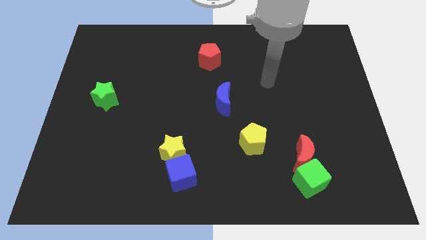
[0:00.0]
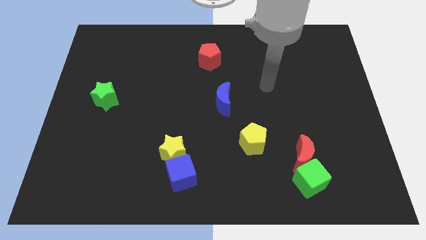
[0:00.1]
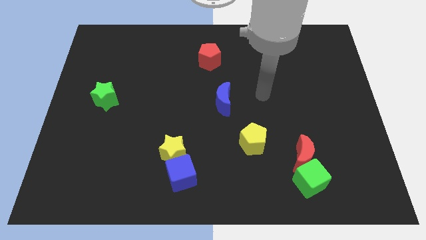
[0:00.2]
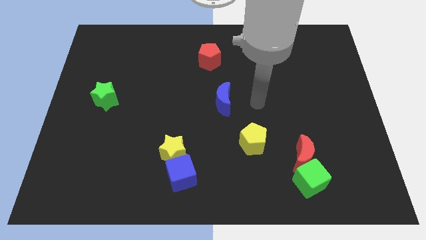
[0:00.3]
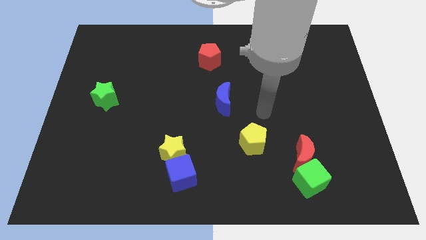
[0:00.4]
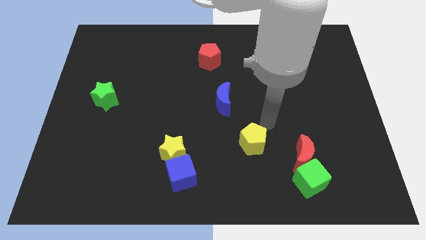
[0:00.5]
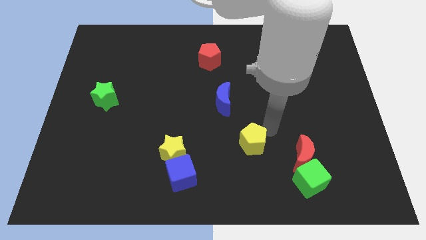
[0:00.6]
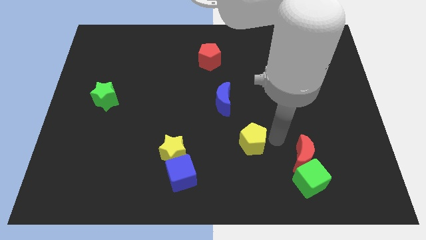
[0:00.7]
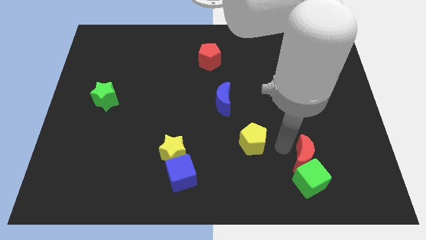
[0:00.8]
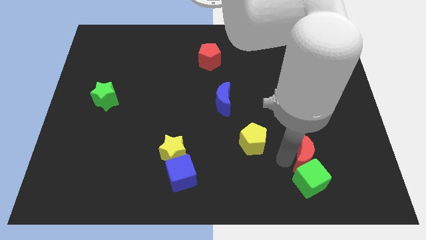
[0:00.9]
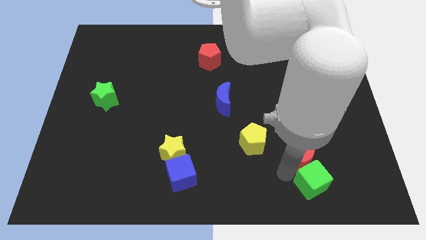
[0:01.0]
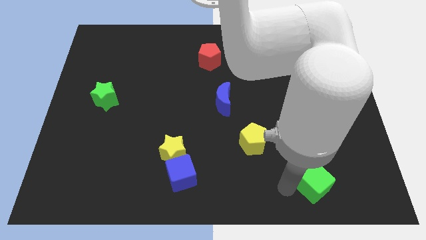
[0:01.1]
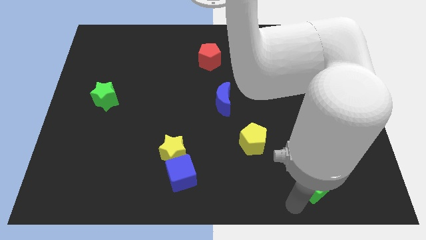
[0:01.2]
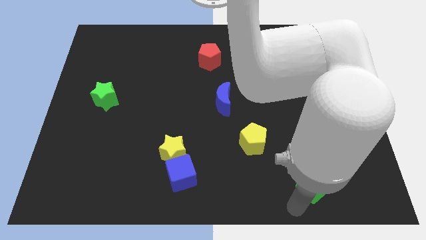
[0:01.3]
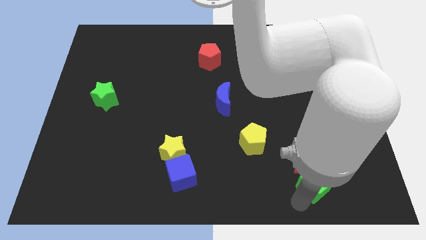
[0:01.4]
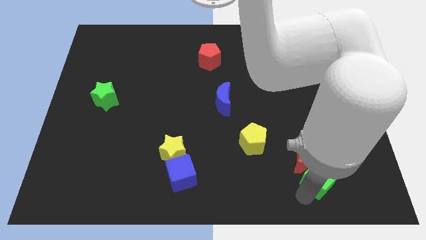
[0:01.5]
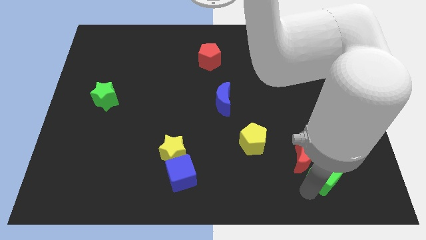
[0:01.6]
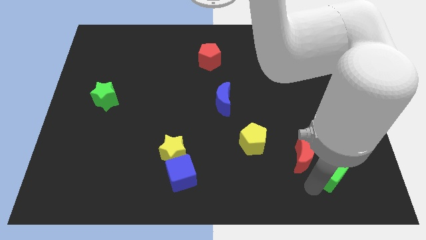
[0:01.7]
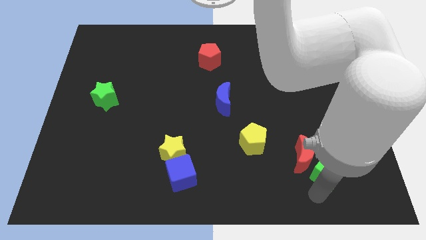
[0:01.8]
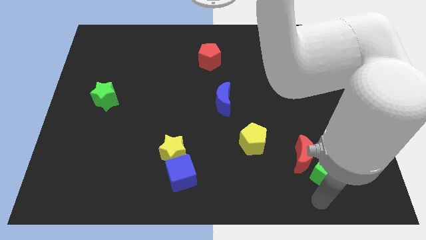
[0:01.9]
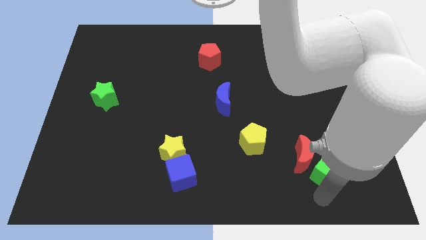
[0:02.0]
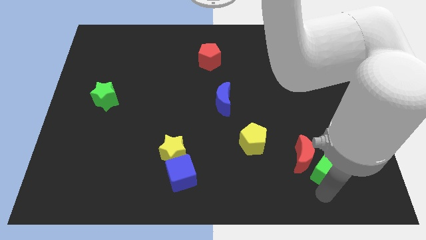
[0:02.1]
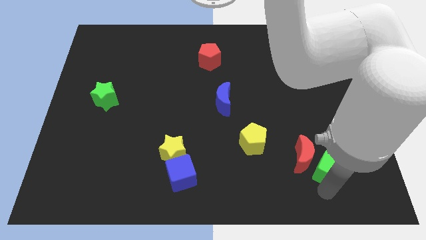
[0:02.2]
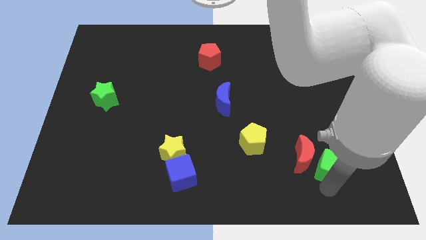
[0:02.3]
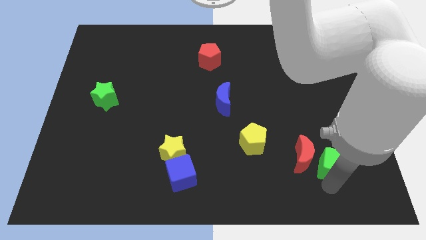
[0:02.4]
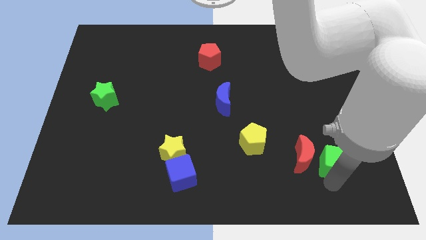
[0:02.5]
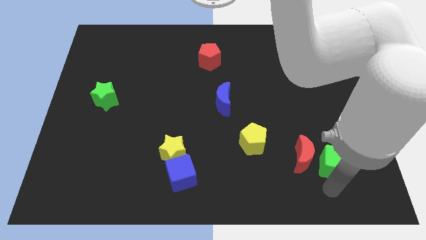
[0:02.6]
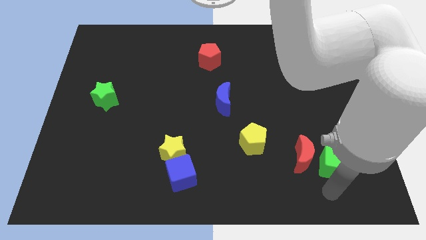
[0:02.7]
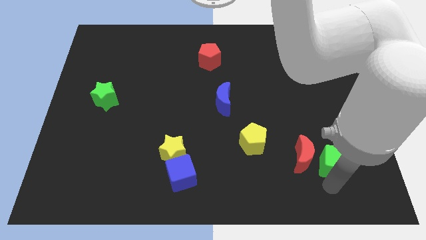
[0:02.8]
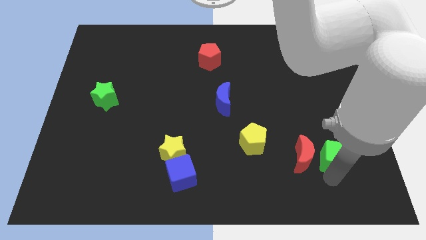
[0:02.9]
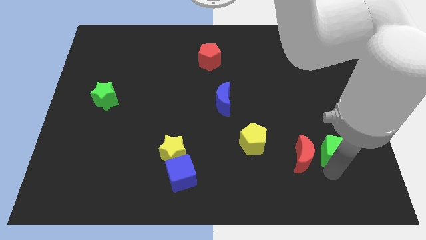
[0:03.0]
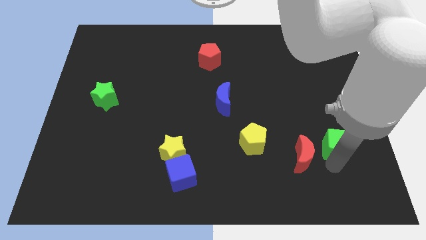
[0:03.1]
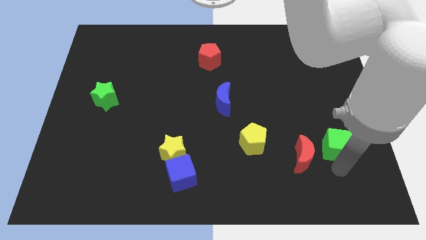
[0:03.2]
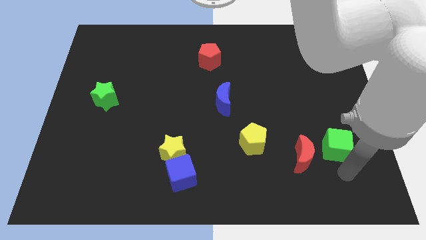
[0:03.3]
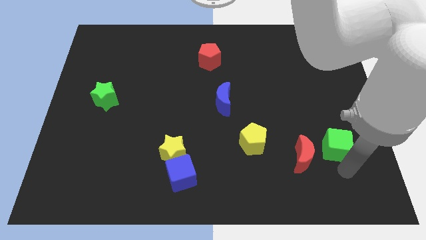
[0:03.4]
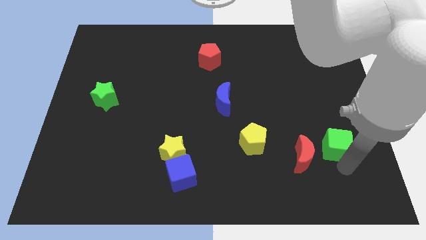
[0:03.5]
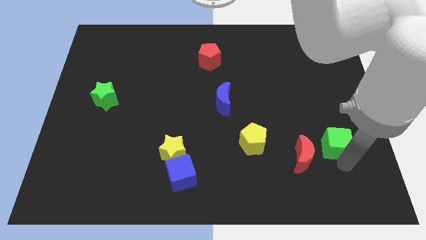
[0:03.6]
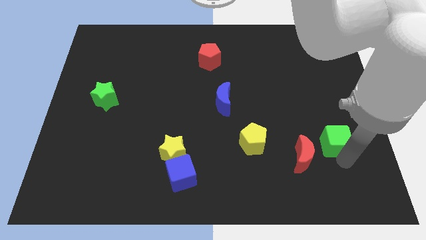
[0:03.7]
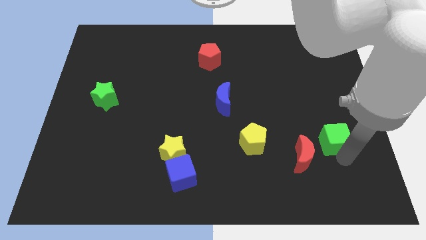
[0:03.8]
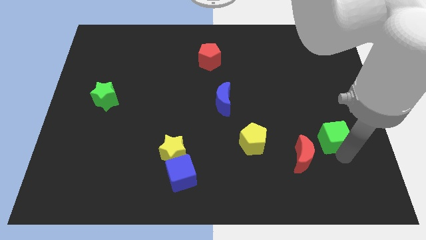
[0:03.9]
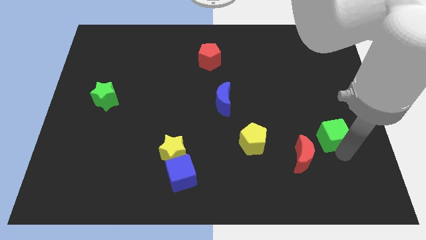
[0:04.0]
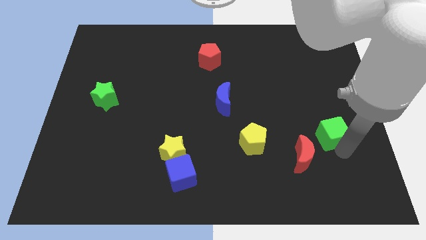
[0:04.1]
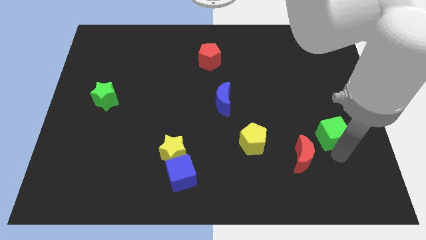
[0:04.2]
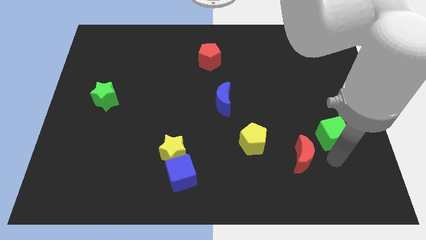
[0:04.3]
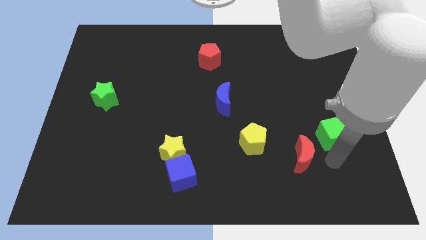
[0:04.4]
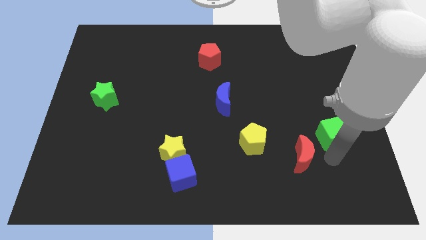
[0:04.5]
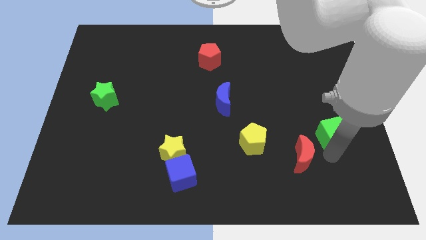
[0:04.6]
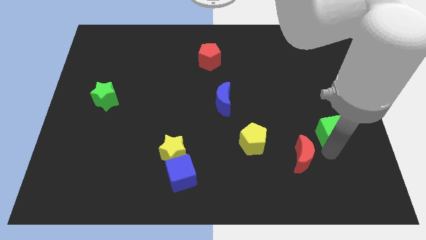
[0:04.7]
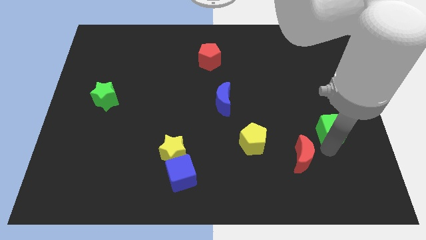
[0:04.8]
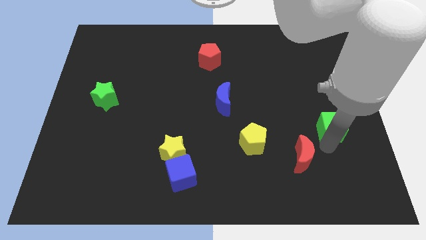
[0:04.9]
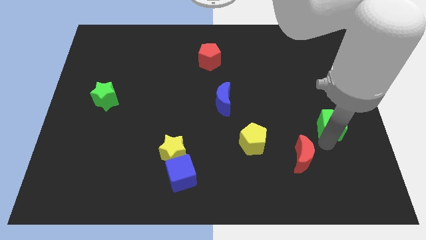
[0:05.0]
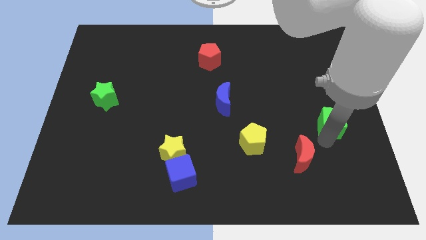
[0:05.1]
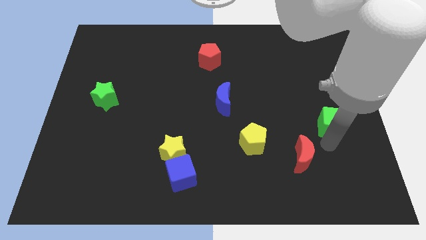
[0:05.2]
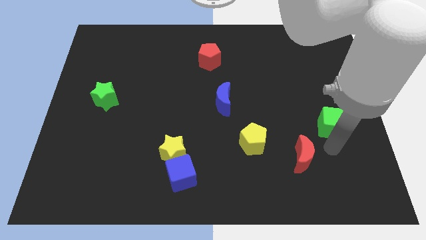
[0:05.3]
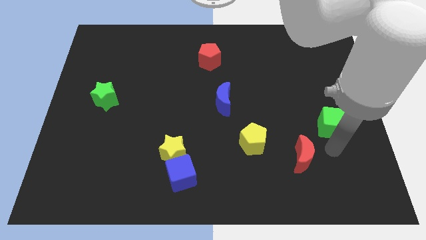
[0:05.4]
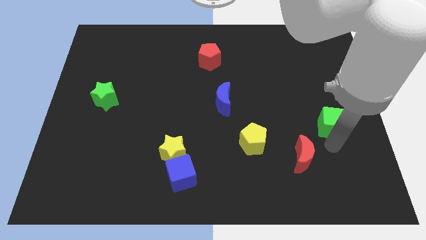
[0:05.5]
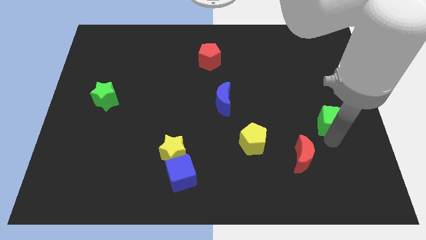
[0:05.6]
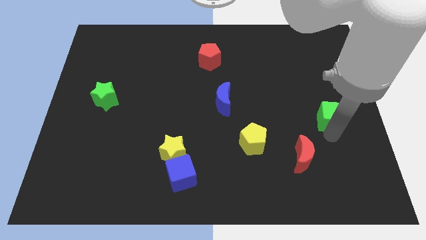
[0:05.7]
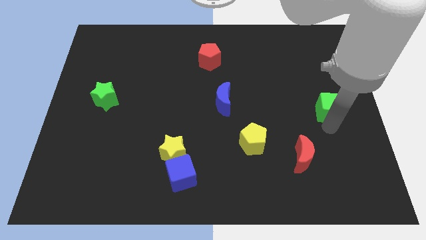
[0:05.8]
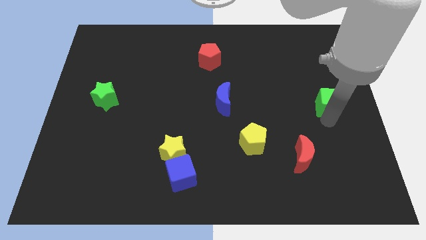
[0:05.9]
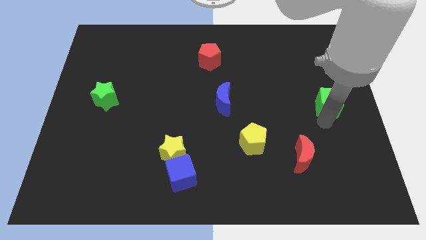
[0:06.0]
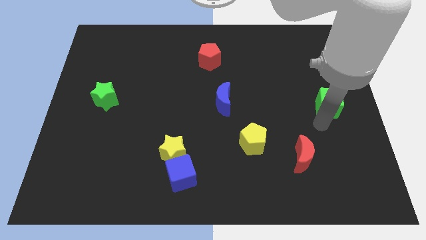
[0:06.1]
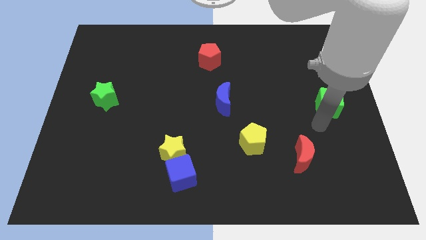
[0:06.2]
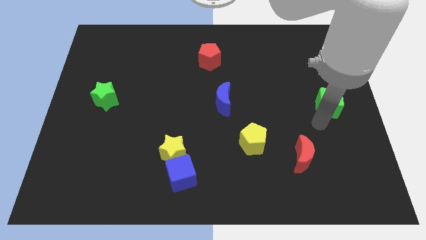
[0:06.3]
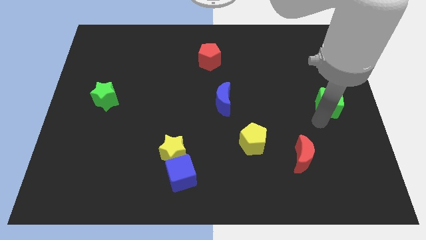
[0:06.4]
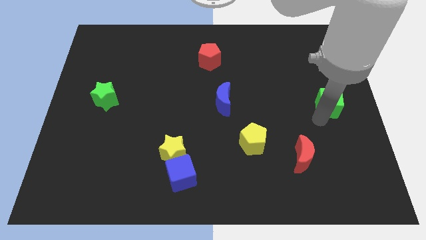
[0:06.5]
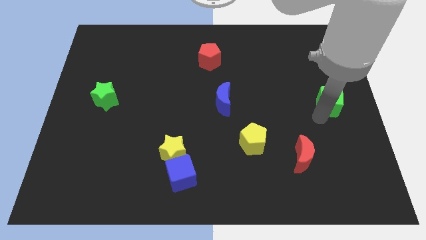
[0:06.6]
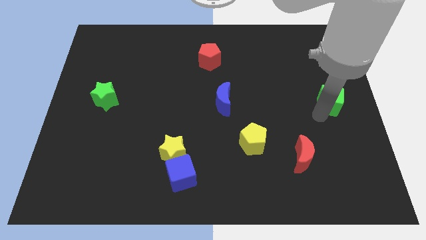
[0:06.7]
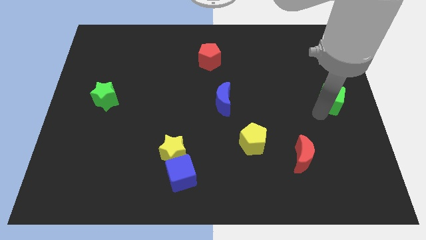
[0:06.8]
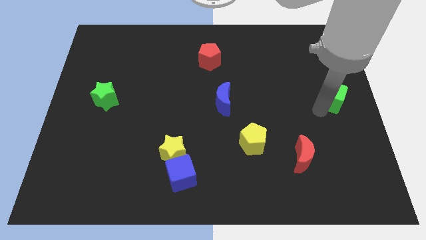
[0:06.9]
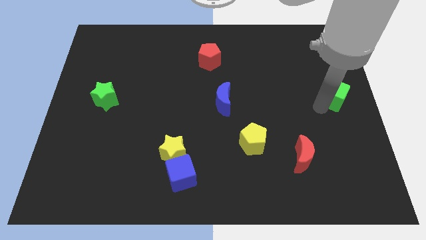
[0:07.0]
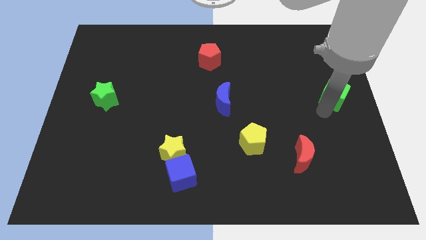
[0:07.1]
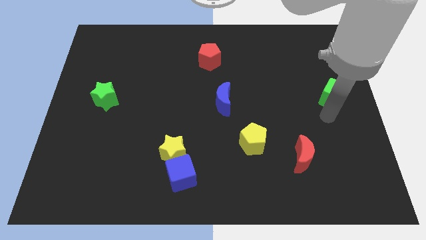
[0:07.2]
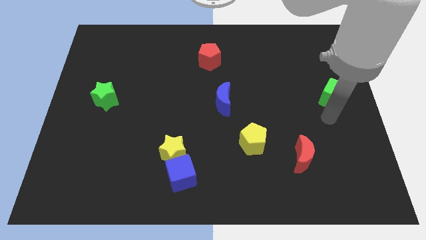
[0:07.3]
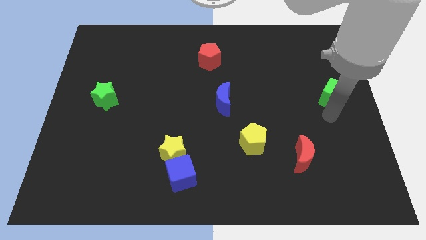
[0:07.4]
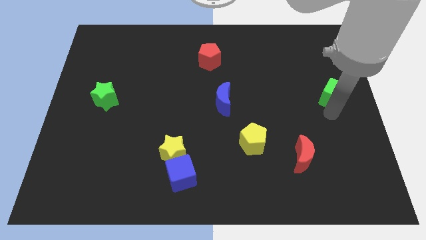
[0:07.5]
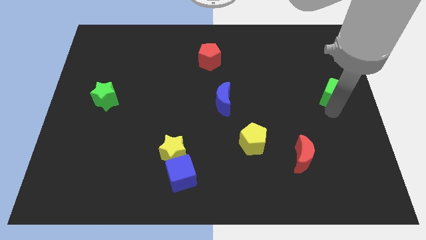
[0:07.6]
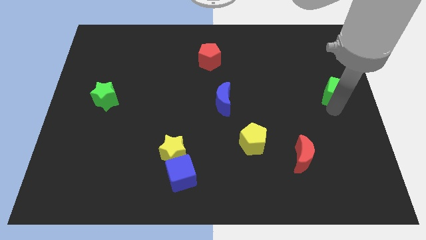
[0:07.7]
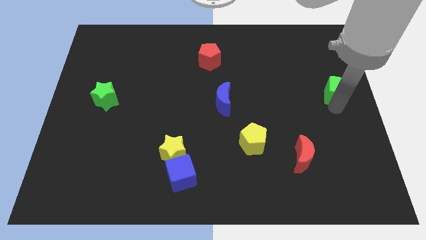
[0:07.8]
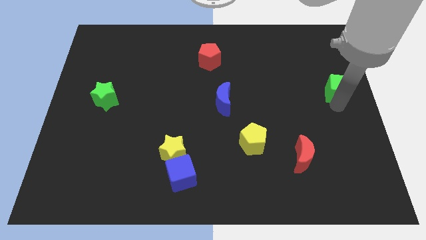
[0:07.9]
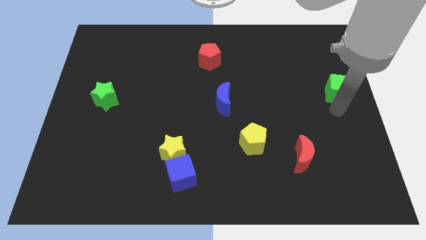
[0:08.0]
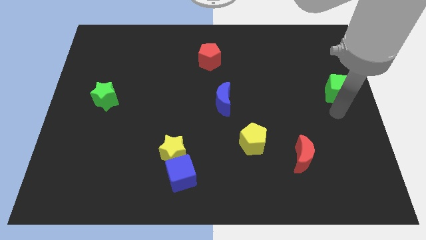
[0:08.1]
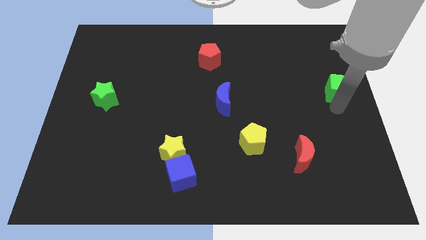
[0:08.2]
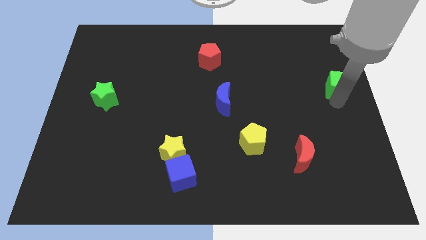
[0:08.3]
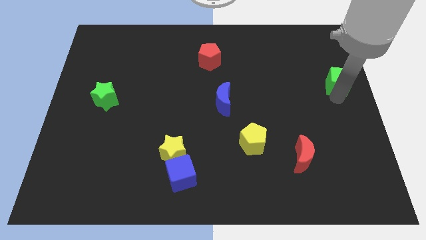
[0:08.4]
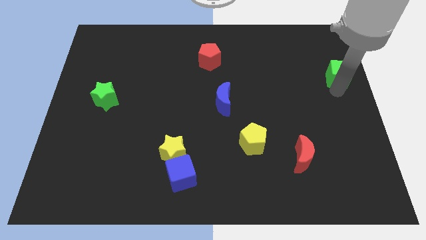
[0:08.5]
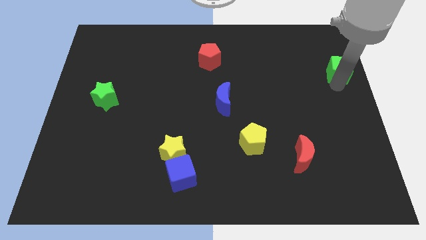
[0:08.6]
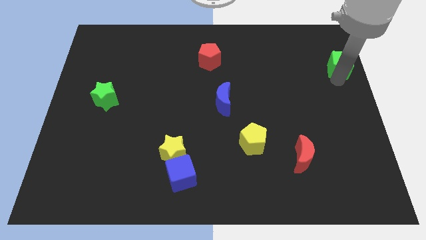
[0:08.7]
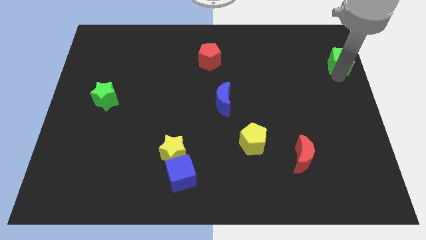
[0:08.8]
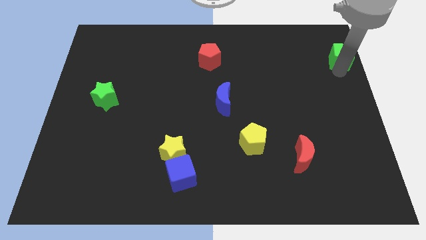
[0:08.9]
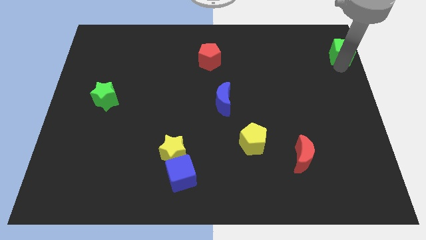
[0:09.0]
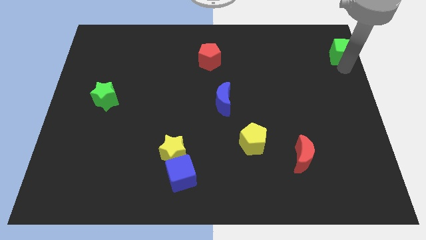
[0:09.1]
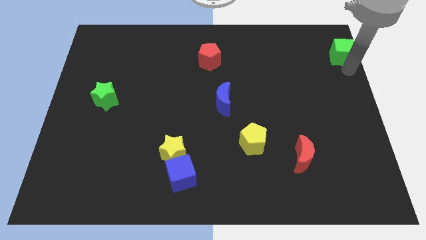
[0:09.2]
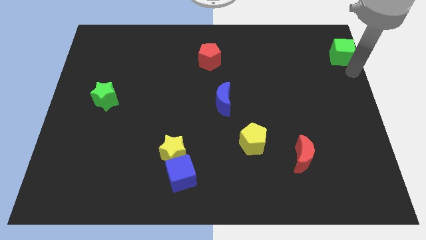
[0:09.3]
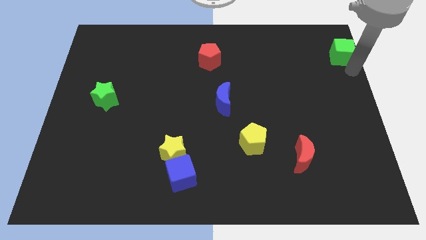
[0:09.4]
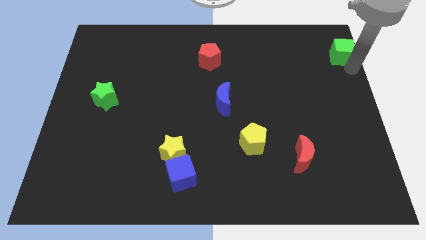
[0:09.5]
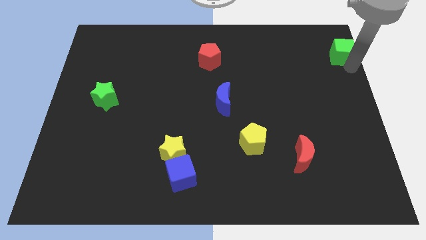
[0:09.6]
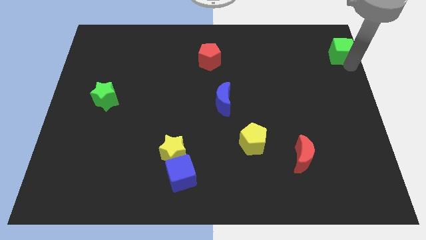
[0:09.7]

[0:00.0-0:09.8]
push the green cube to the top right
